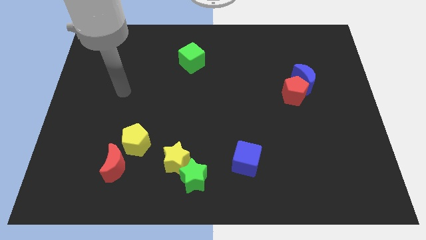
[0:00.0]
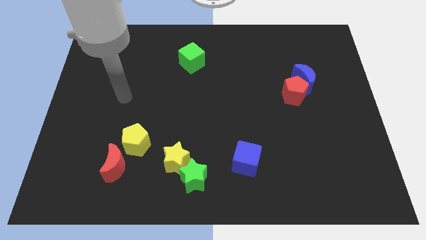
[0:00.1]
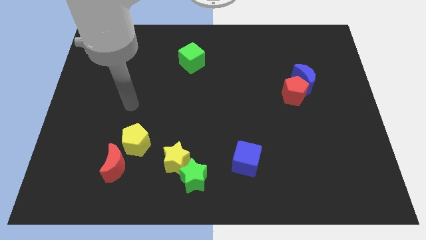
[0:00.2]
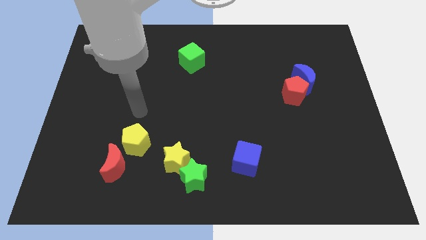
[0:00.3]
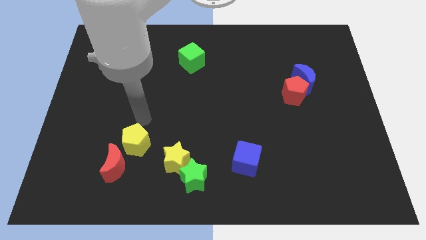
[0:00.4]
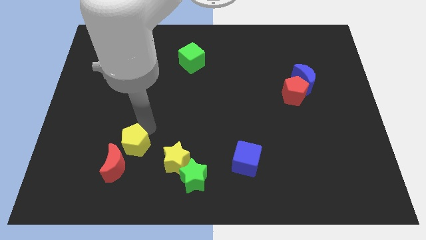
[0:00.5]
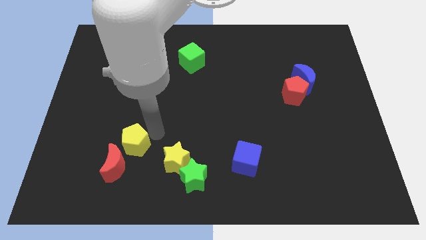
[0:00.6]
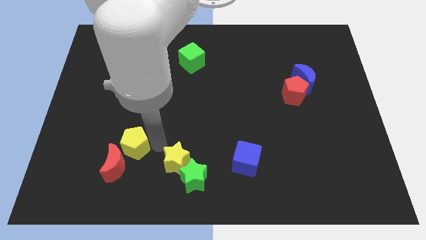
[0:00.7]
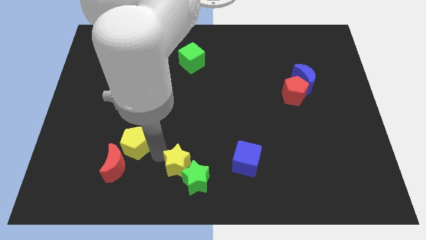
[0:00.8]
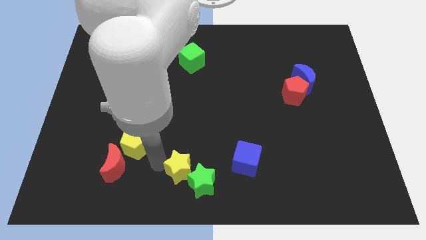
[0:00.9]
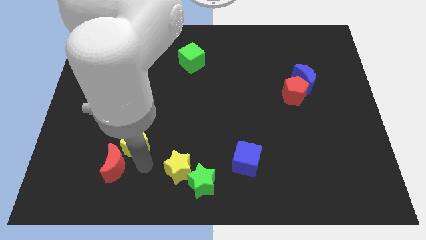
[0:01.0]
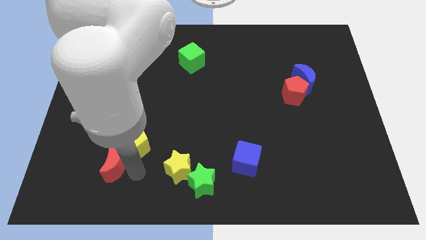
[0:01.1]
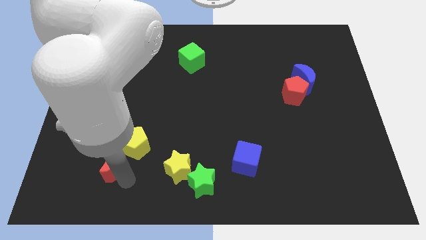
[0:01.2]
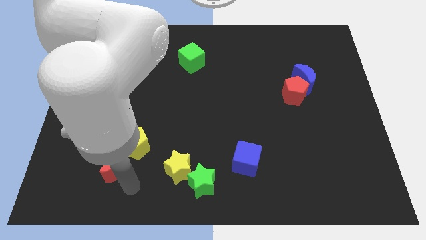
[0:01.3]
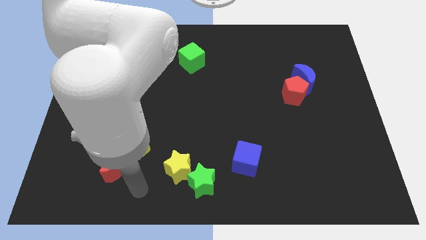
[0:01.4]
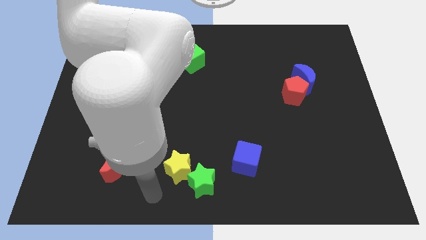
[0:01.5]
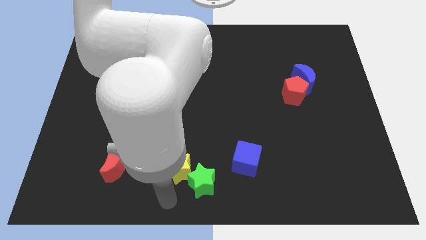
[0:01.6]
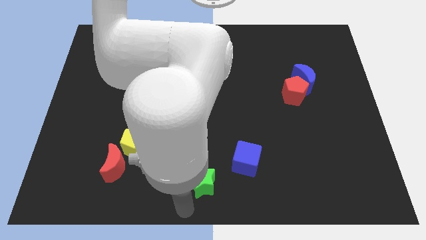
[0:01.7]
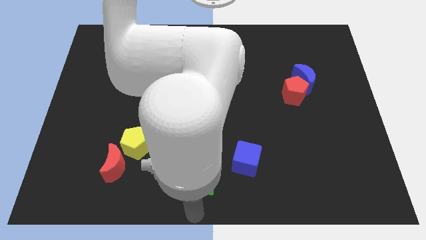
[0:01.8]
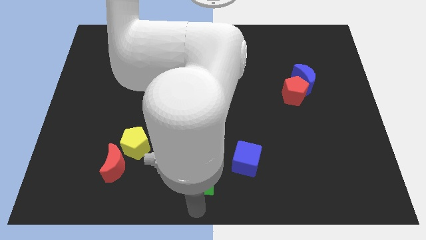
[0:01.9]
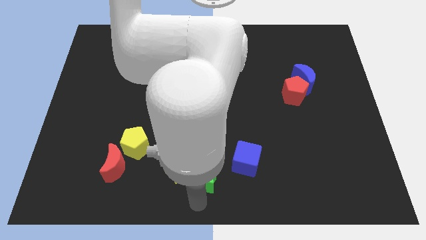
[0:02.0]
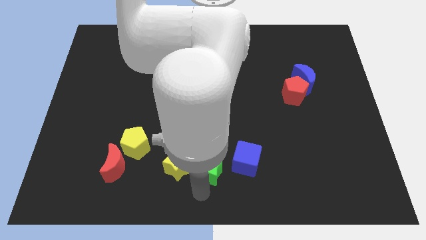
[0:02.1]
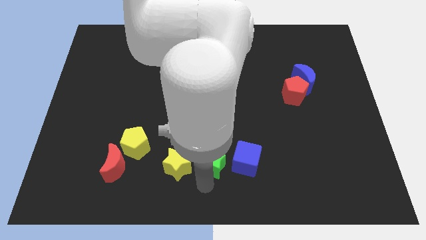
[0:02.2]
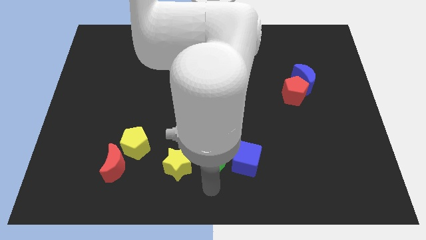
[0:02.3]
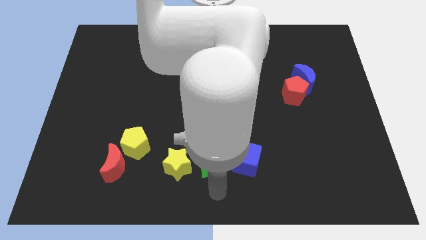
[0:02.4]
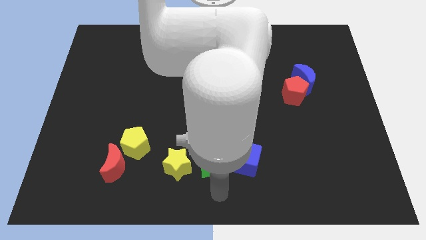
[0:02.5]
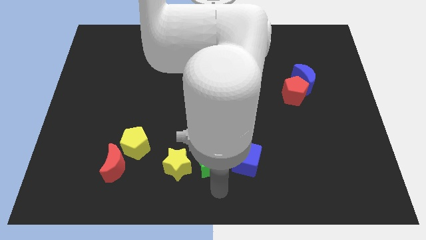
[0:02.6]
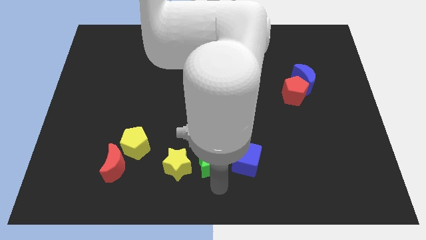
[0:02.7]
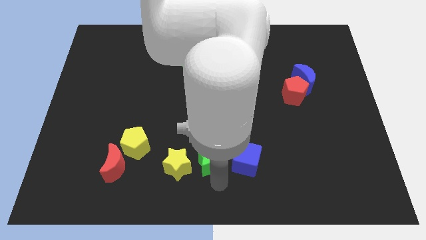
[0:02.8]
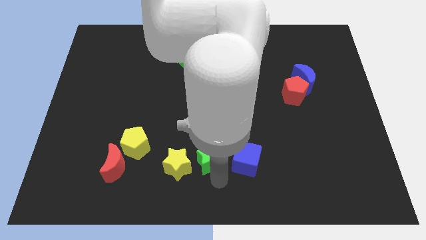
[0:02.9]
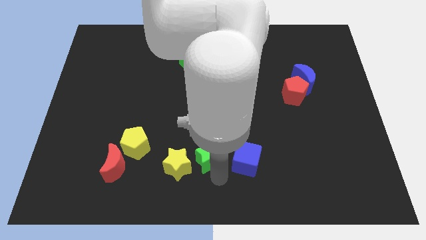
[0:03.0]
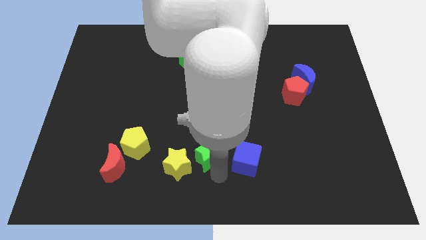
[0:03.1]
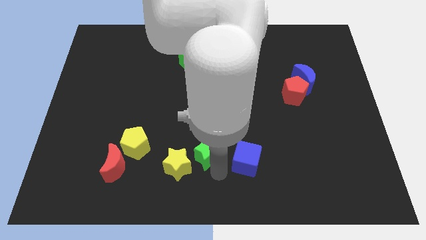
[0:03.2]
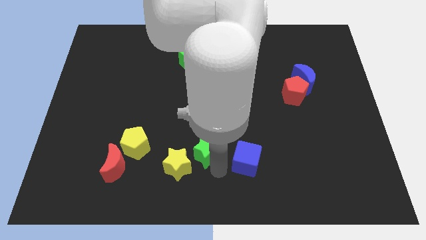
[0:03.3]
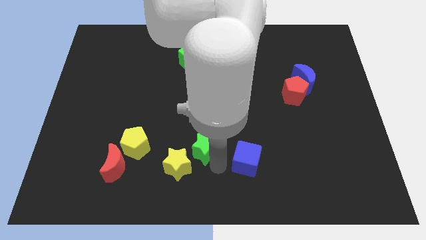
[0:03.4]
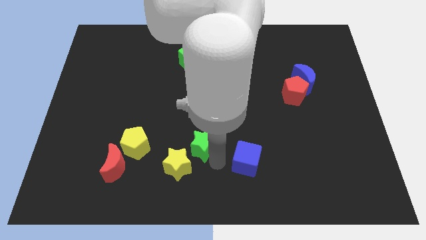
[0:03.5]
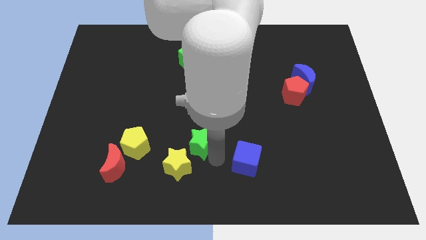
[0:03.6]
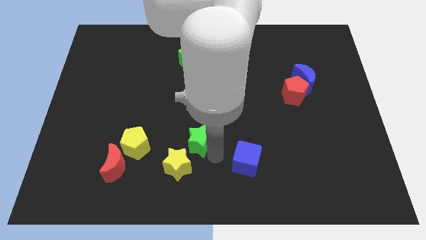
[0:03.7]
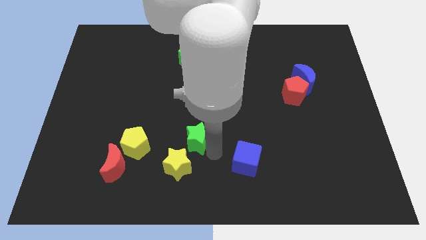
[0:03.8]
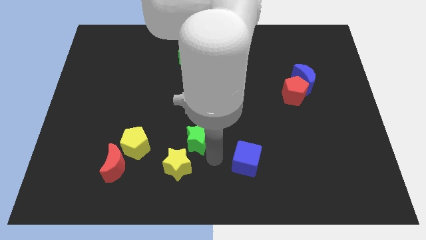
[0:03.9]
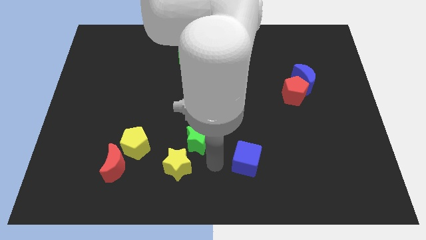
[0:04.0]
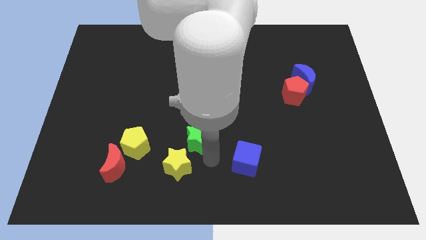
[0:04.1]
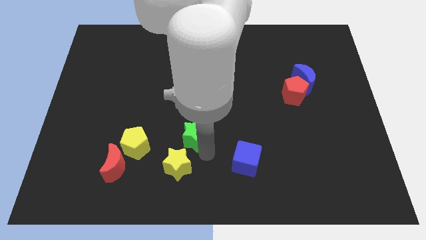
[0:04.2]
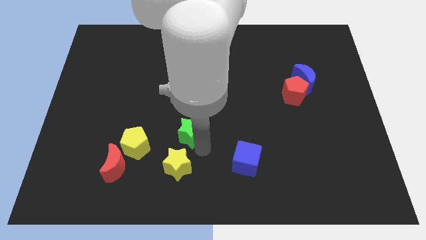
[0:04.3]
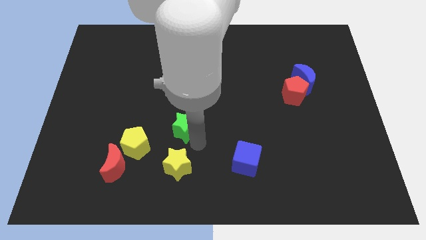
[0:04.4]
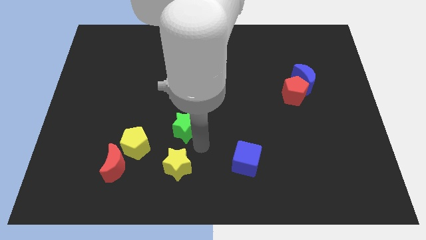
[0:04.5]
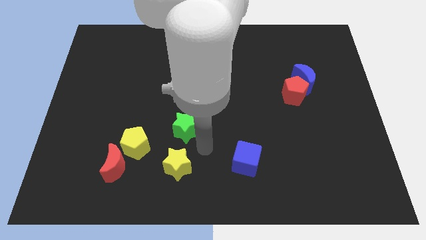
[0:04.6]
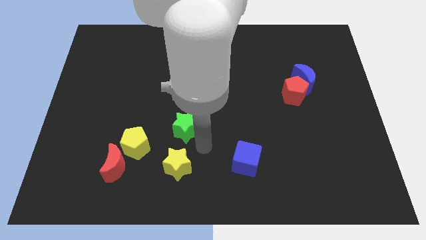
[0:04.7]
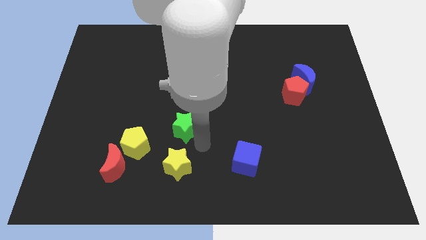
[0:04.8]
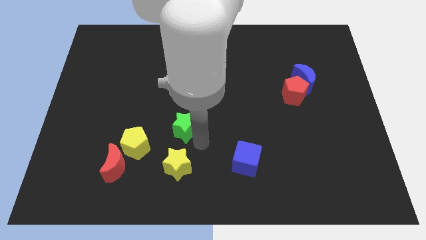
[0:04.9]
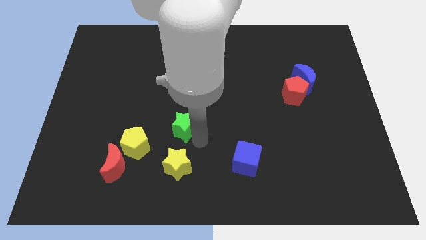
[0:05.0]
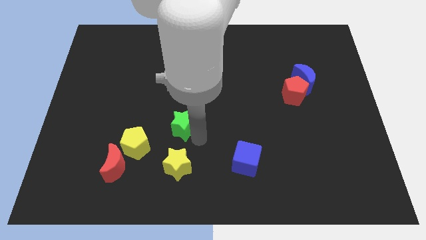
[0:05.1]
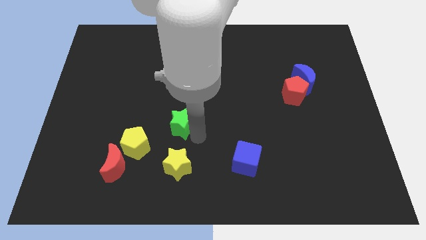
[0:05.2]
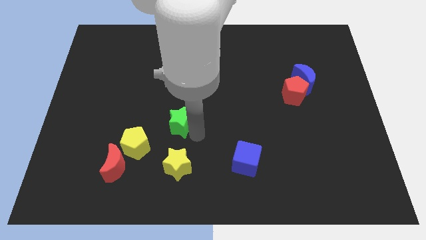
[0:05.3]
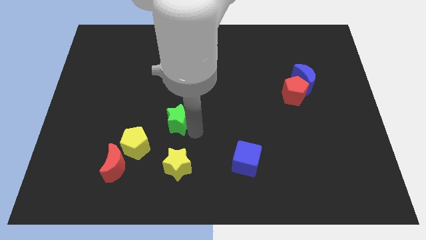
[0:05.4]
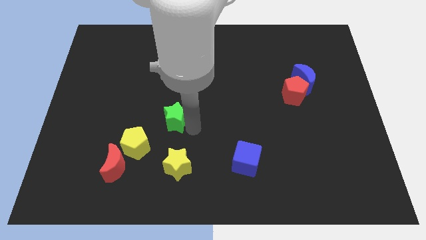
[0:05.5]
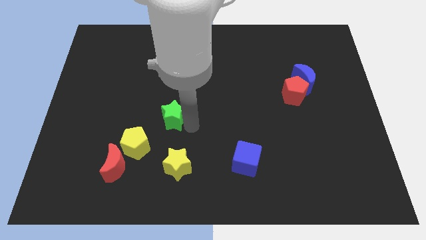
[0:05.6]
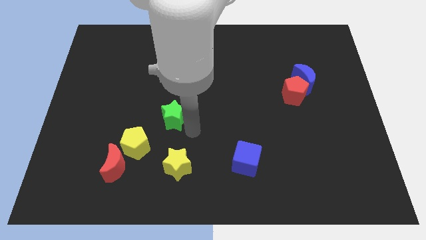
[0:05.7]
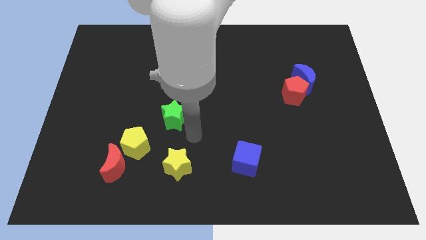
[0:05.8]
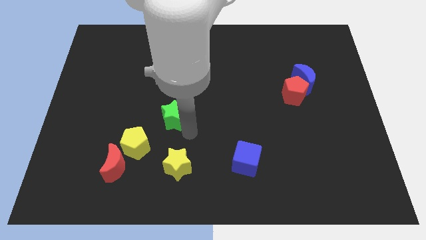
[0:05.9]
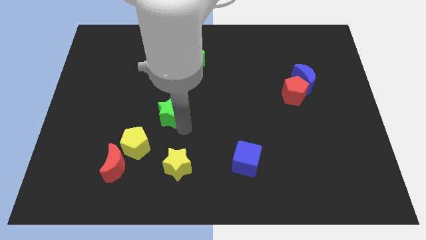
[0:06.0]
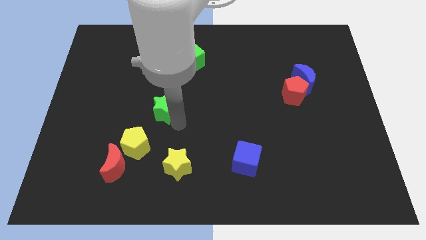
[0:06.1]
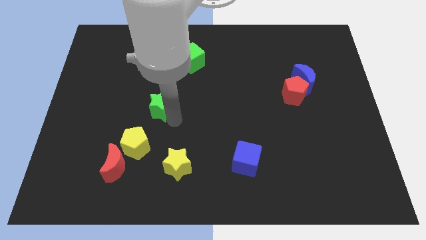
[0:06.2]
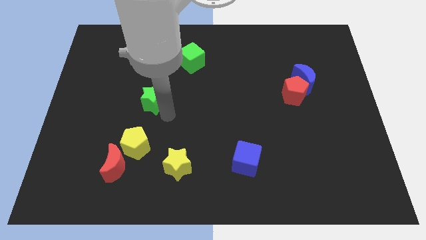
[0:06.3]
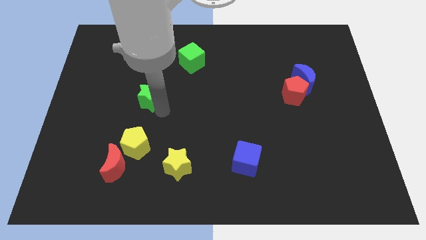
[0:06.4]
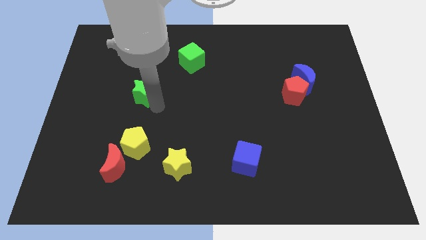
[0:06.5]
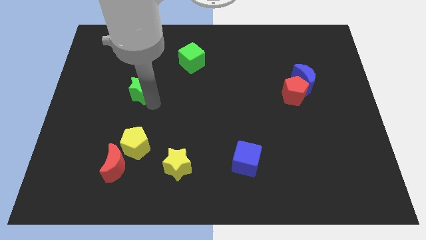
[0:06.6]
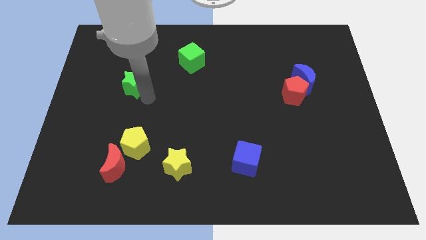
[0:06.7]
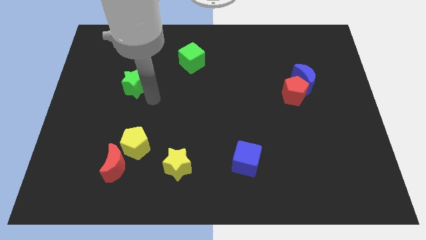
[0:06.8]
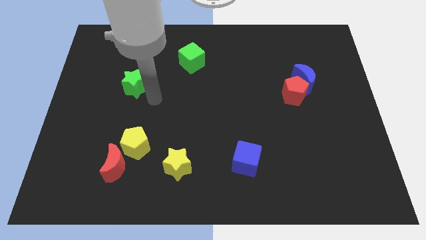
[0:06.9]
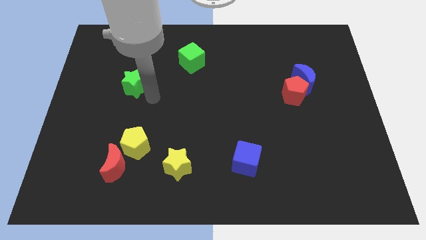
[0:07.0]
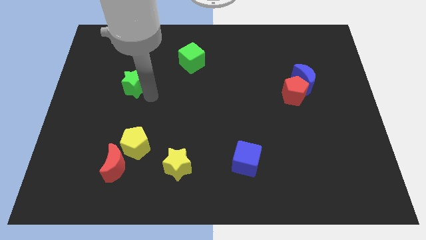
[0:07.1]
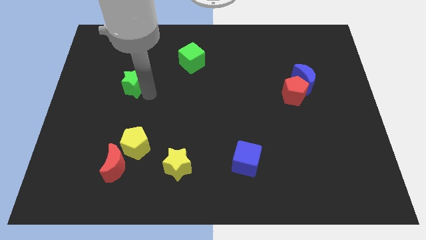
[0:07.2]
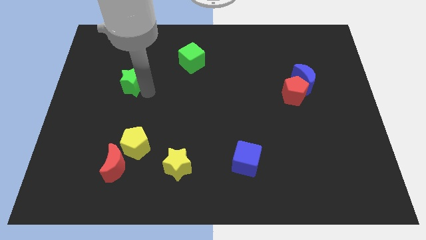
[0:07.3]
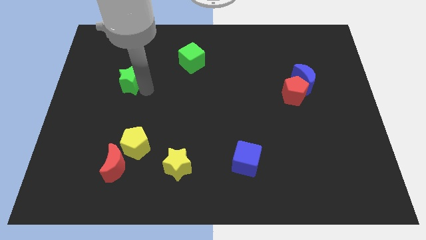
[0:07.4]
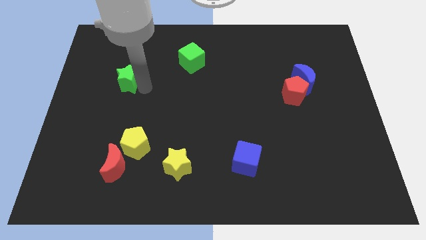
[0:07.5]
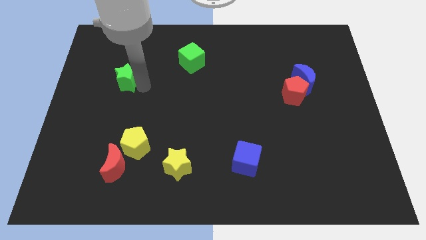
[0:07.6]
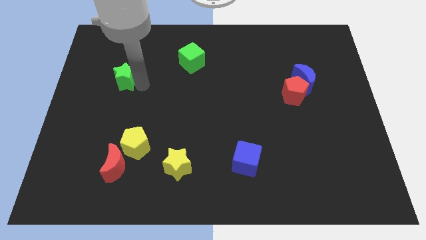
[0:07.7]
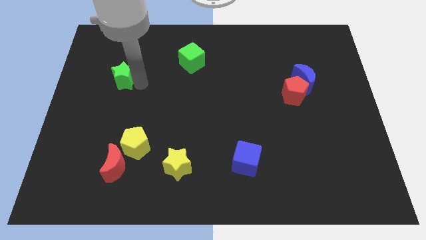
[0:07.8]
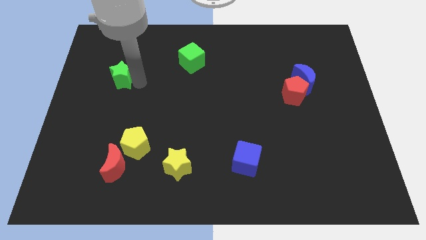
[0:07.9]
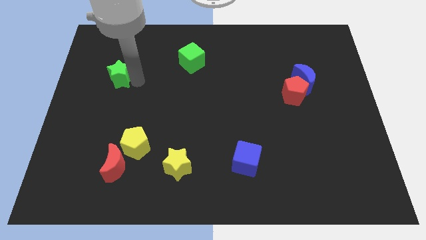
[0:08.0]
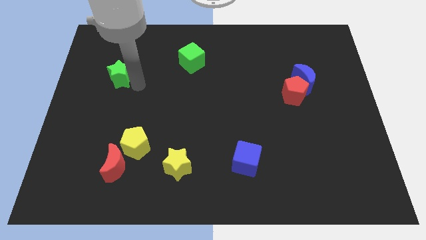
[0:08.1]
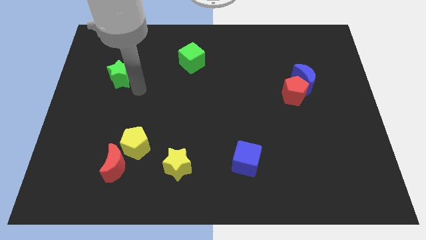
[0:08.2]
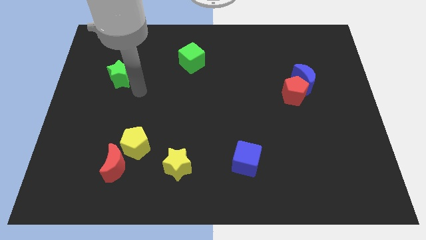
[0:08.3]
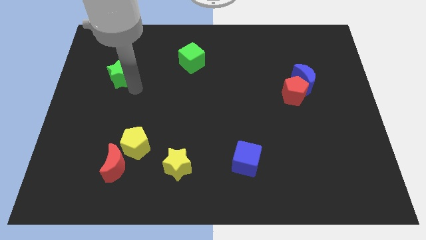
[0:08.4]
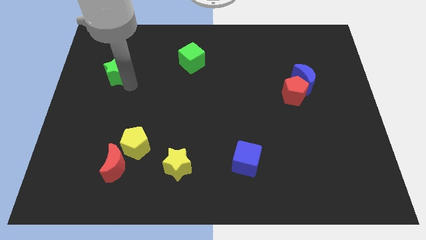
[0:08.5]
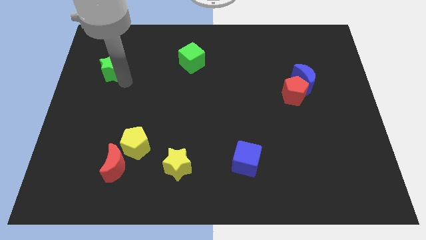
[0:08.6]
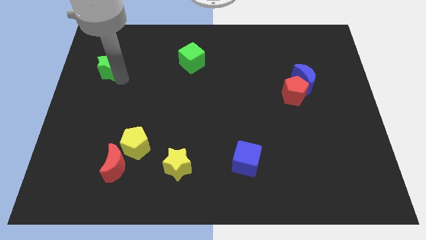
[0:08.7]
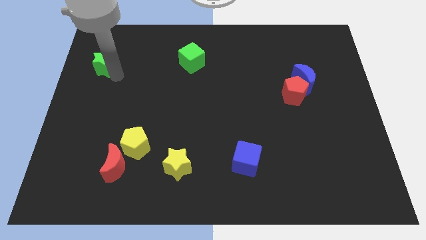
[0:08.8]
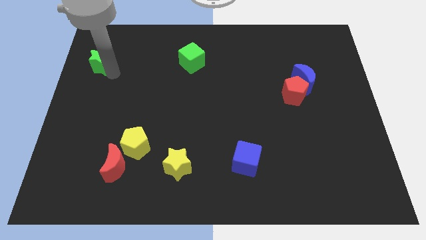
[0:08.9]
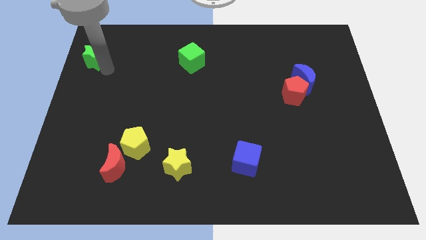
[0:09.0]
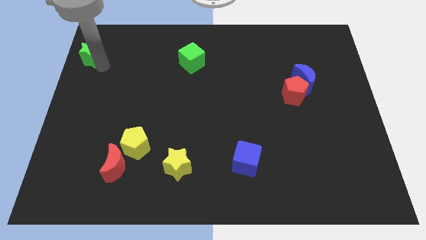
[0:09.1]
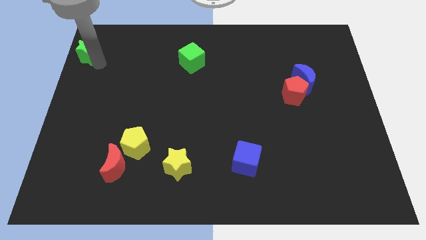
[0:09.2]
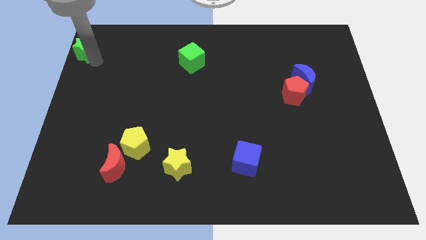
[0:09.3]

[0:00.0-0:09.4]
push the green star to the upper left corner
